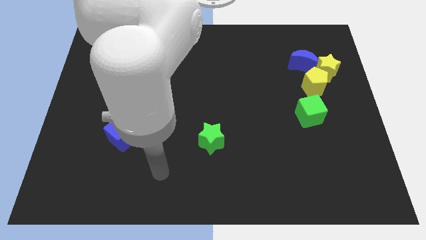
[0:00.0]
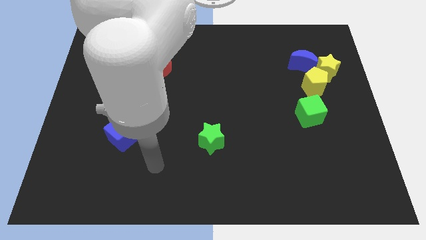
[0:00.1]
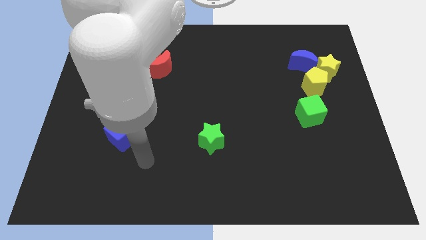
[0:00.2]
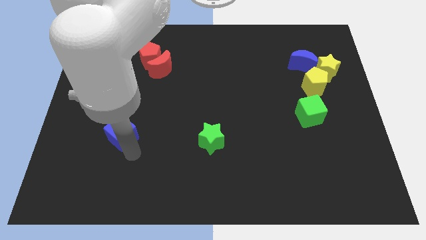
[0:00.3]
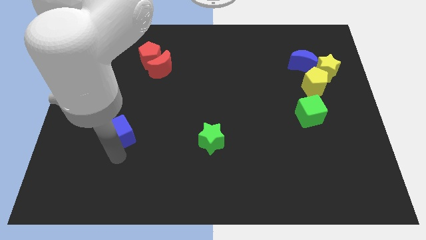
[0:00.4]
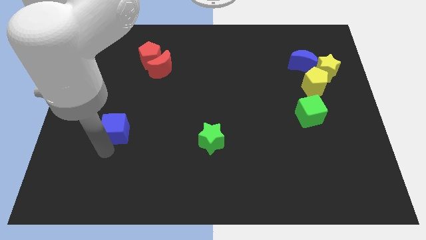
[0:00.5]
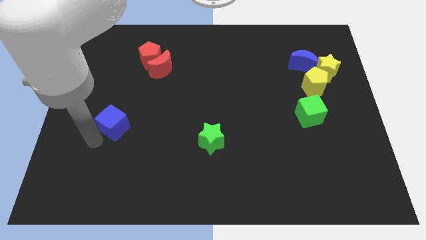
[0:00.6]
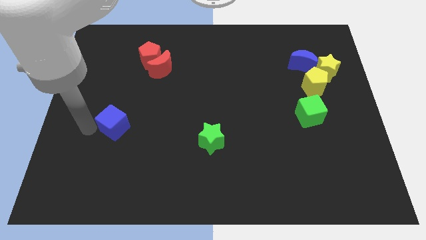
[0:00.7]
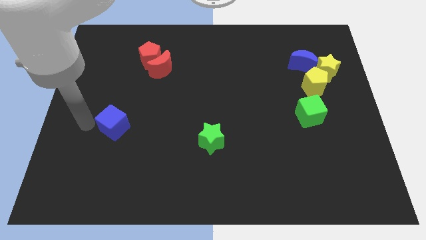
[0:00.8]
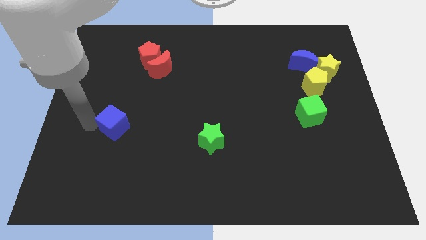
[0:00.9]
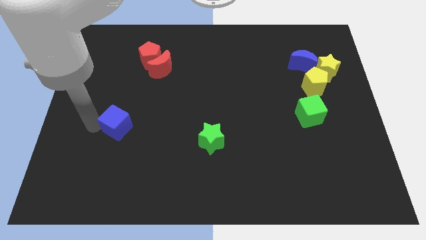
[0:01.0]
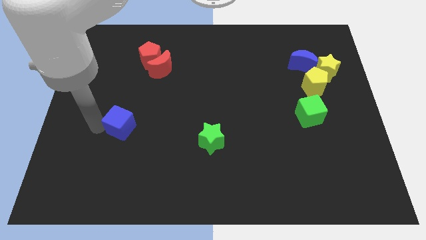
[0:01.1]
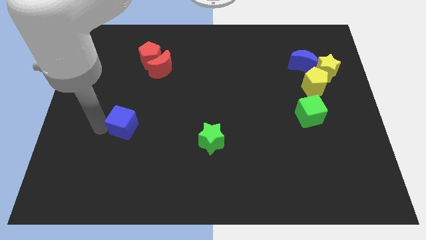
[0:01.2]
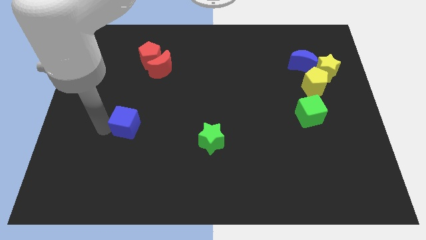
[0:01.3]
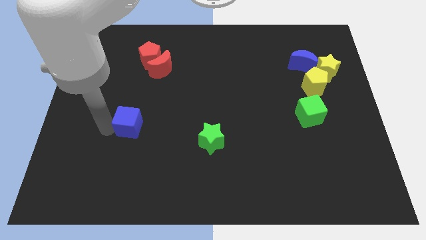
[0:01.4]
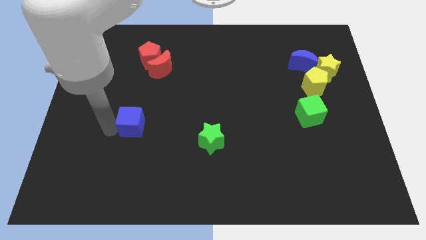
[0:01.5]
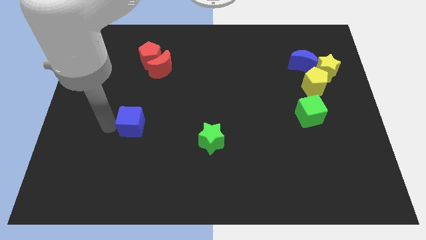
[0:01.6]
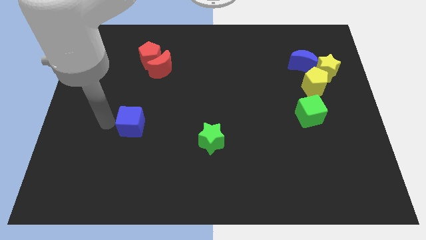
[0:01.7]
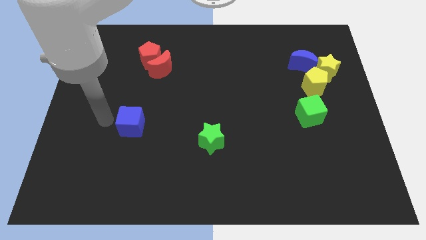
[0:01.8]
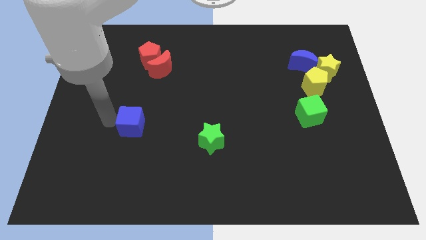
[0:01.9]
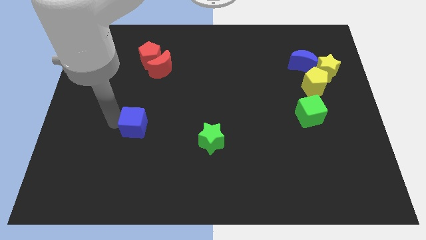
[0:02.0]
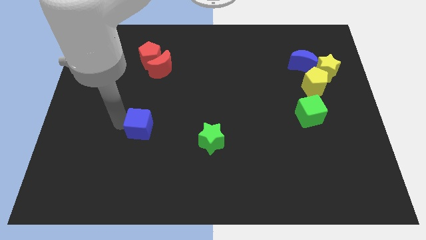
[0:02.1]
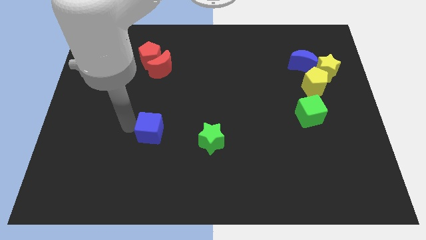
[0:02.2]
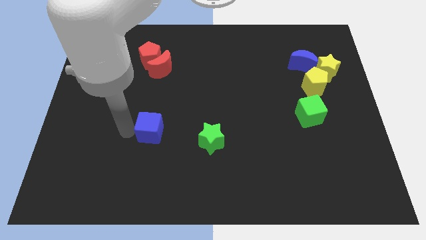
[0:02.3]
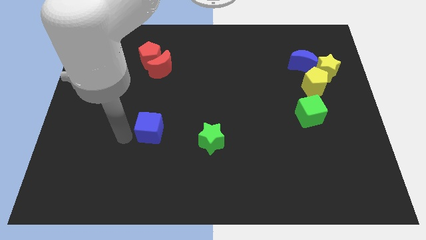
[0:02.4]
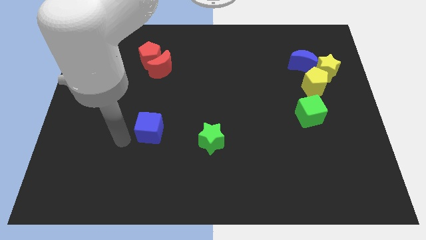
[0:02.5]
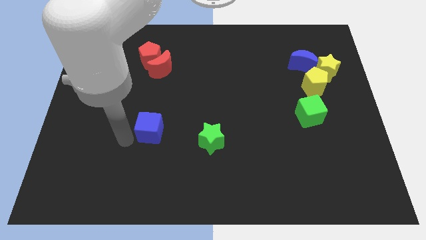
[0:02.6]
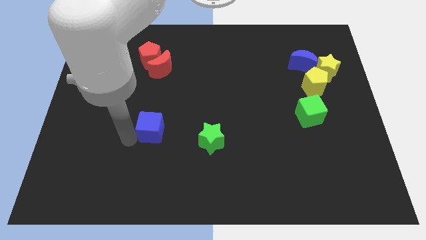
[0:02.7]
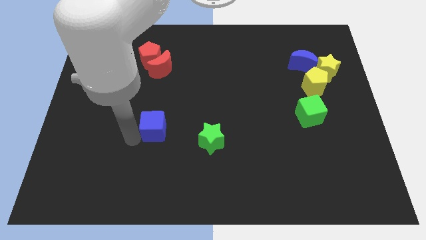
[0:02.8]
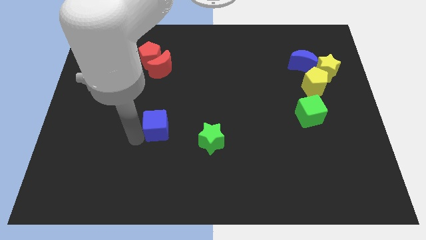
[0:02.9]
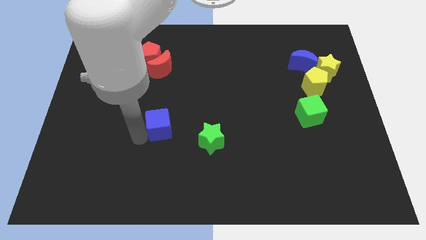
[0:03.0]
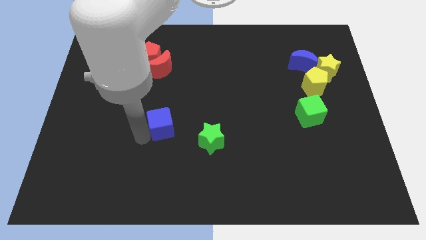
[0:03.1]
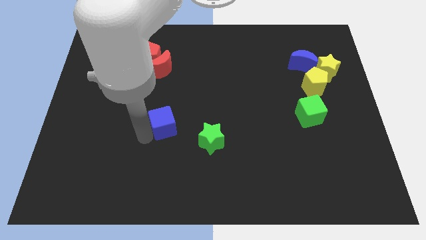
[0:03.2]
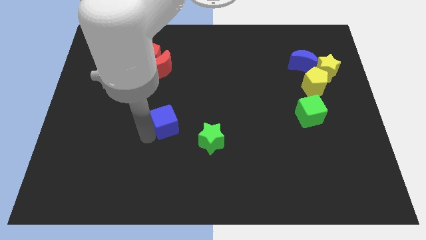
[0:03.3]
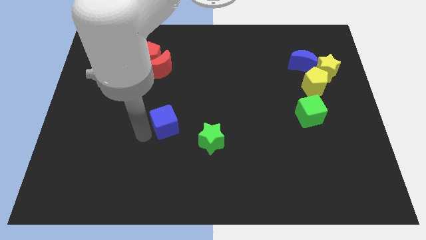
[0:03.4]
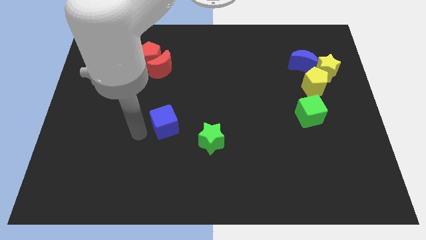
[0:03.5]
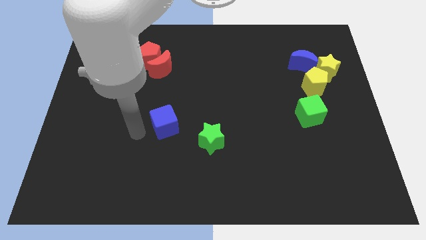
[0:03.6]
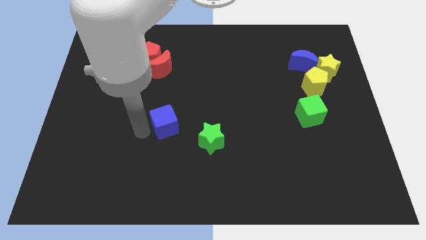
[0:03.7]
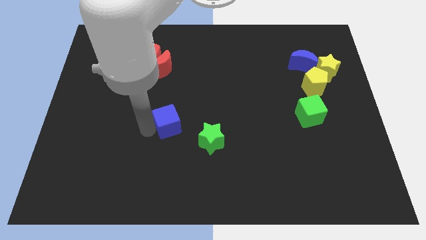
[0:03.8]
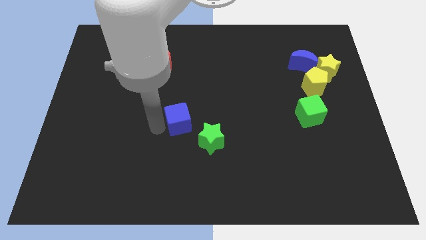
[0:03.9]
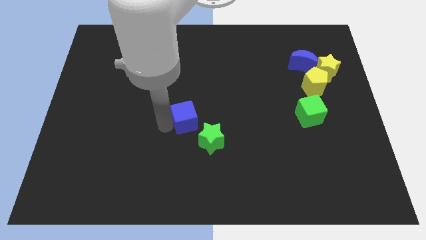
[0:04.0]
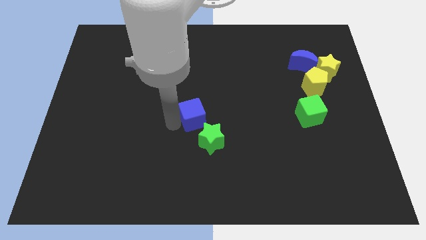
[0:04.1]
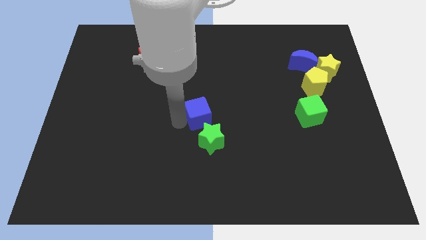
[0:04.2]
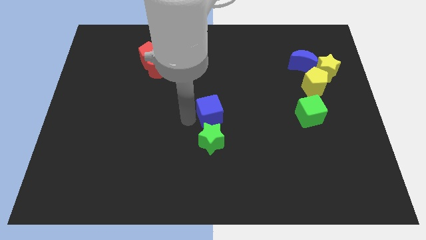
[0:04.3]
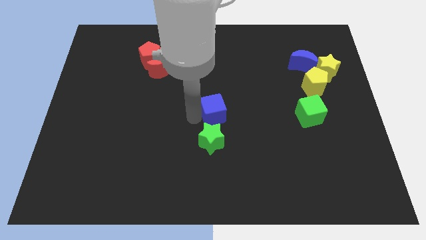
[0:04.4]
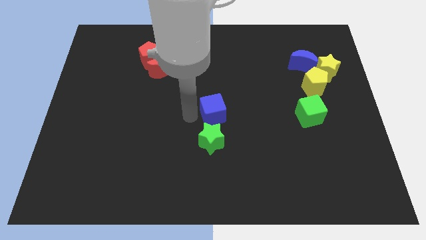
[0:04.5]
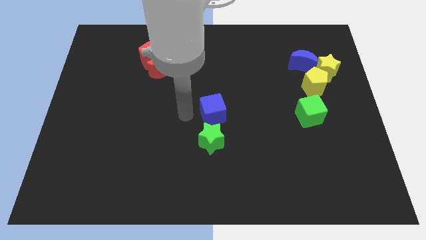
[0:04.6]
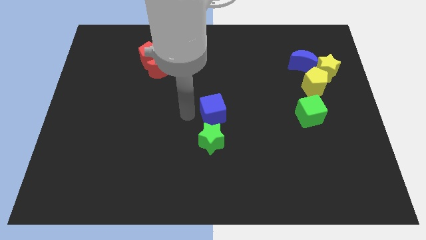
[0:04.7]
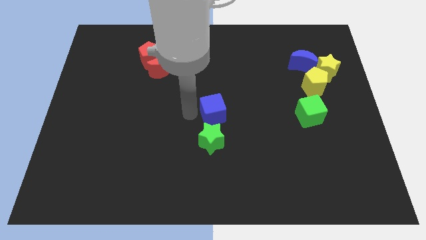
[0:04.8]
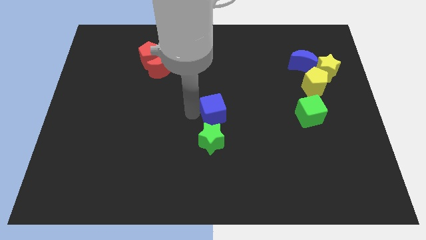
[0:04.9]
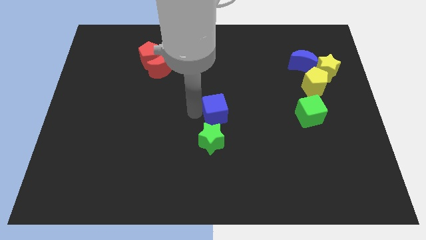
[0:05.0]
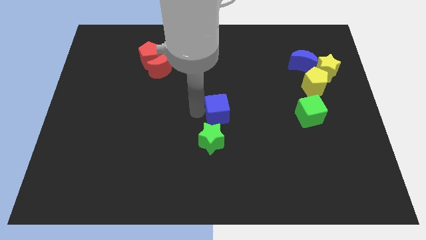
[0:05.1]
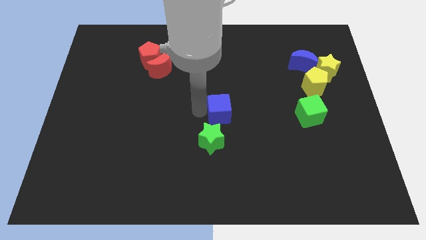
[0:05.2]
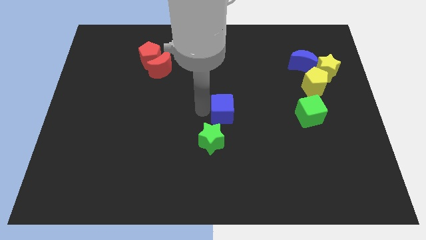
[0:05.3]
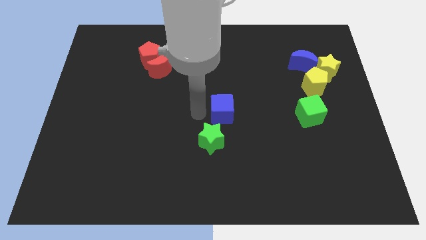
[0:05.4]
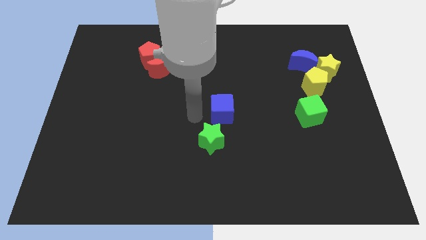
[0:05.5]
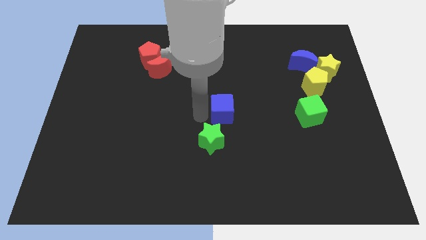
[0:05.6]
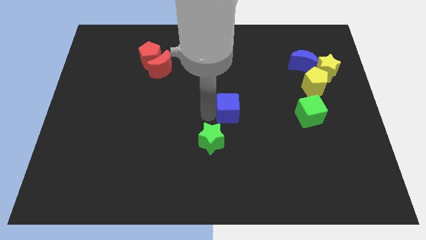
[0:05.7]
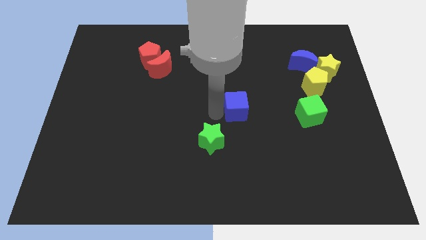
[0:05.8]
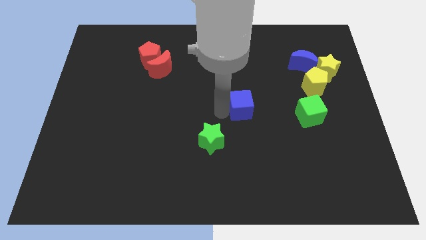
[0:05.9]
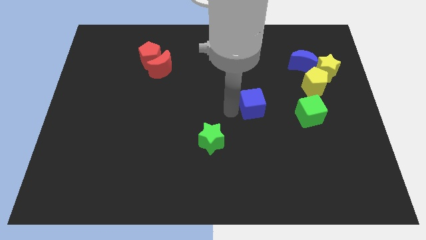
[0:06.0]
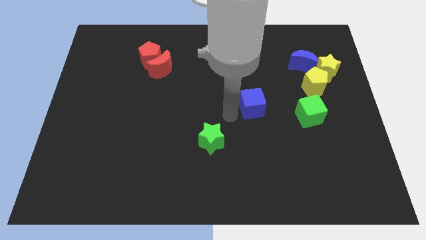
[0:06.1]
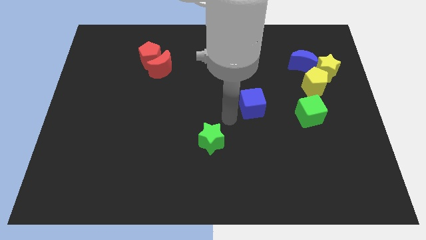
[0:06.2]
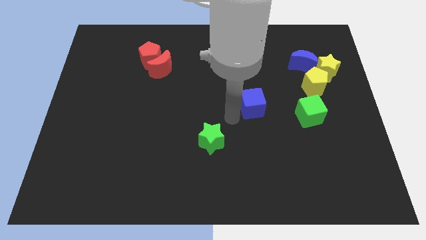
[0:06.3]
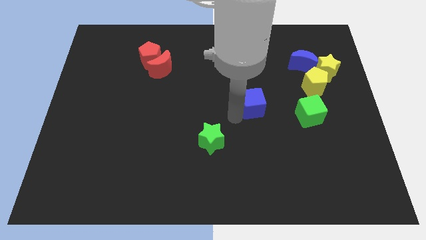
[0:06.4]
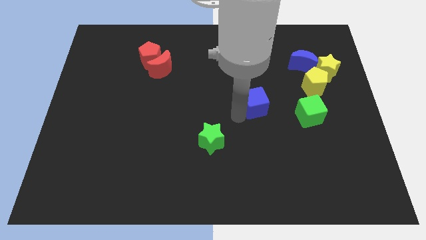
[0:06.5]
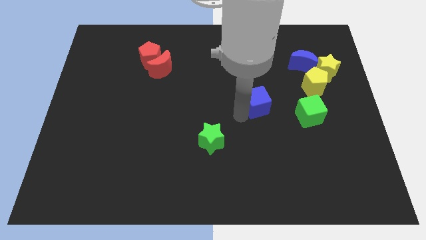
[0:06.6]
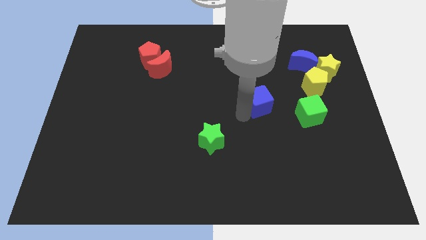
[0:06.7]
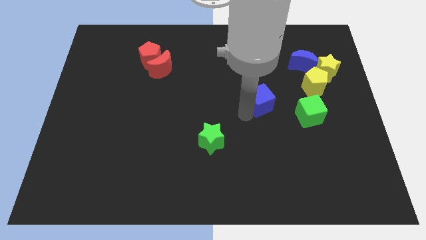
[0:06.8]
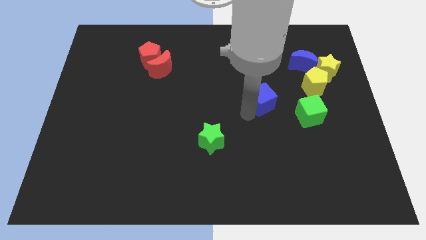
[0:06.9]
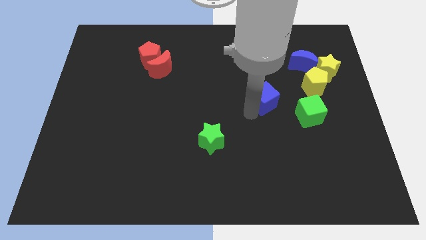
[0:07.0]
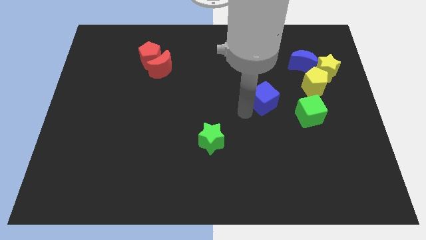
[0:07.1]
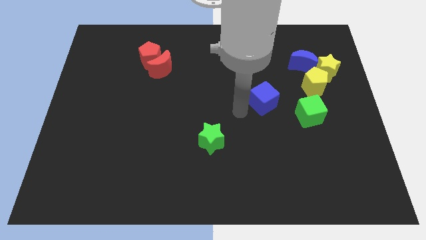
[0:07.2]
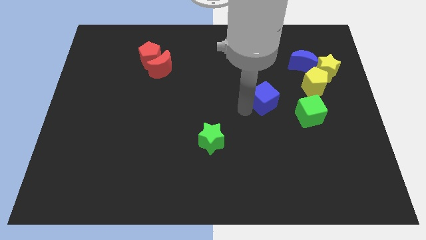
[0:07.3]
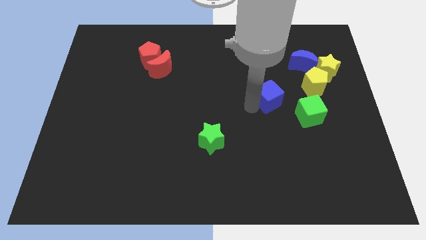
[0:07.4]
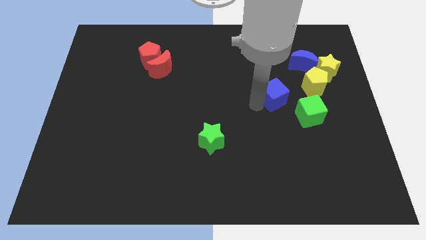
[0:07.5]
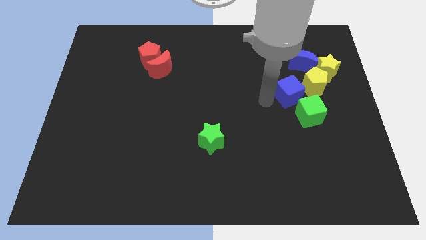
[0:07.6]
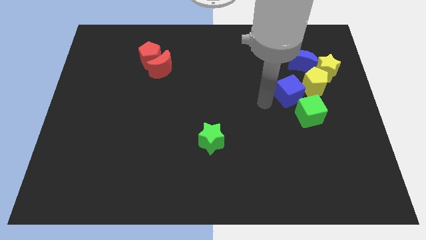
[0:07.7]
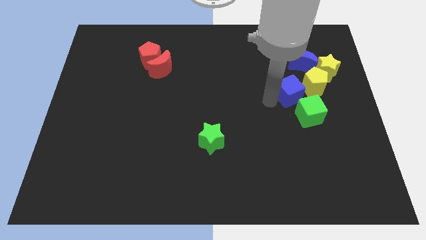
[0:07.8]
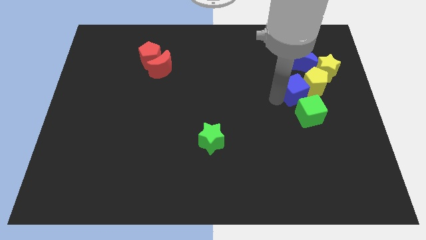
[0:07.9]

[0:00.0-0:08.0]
move the blue cube to the yellow pentagon

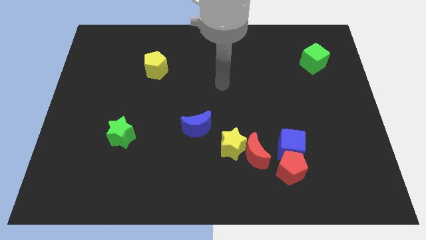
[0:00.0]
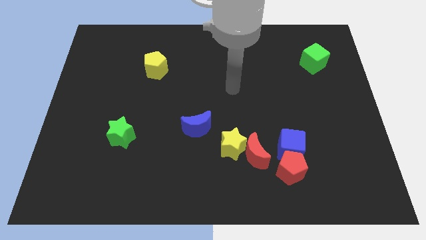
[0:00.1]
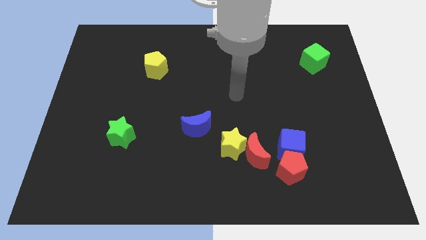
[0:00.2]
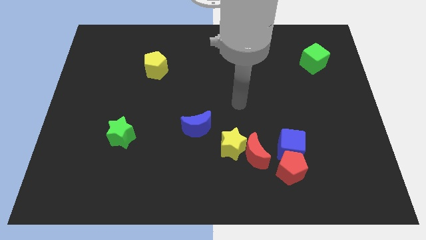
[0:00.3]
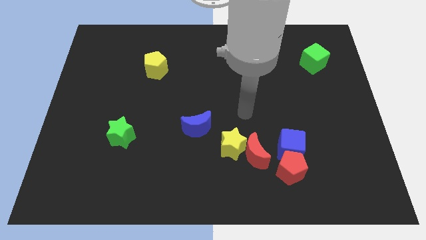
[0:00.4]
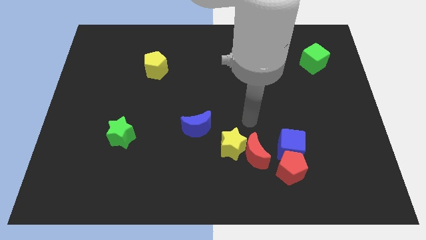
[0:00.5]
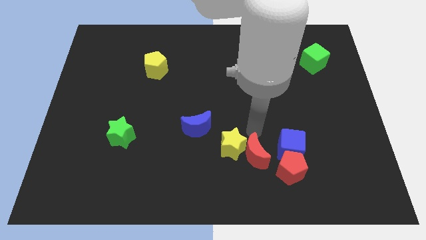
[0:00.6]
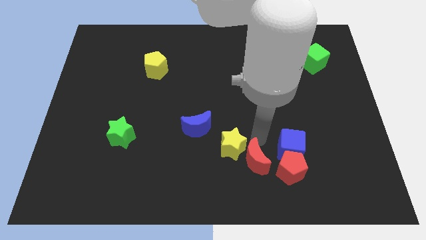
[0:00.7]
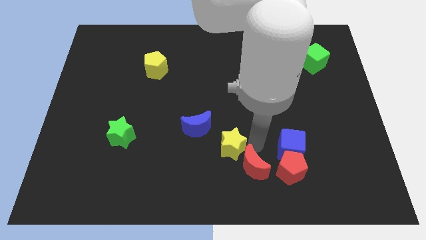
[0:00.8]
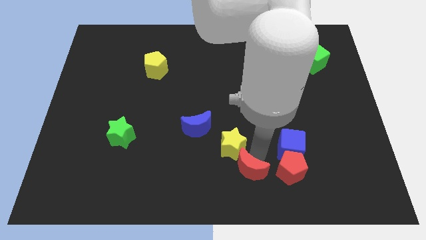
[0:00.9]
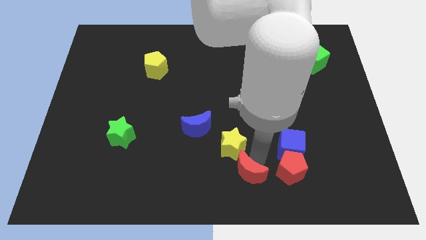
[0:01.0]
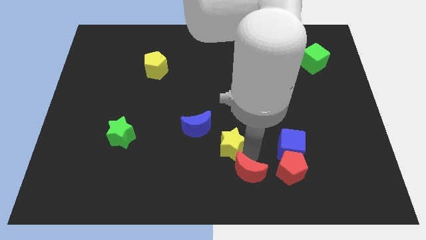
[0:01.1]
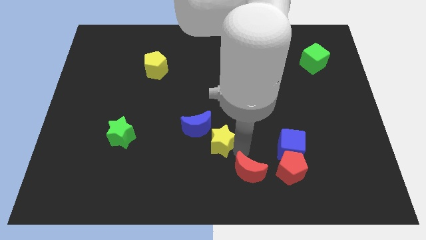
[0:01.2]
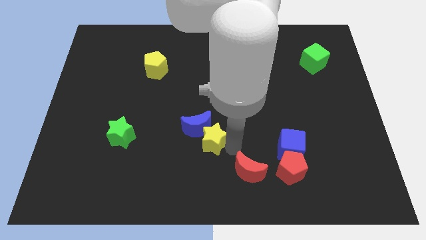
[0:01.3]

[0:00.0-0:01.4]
push the yellow star towards the blue moon
